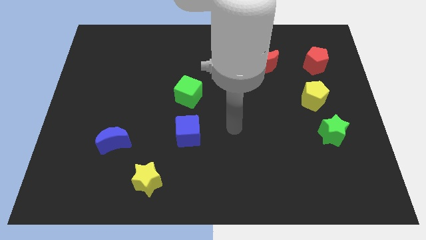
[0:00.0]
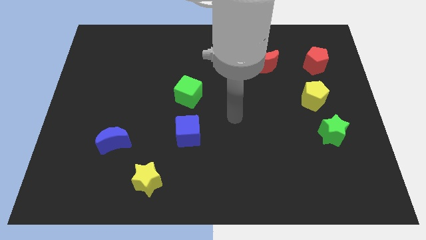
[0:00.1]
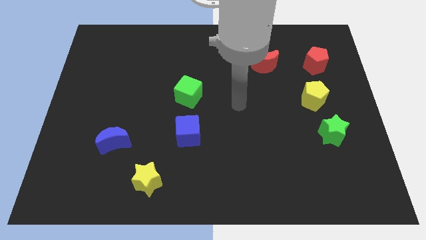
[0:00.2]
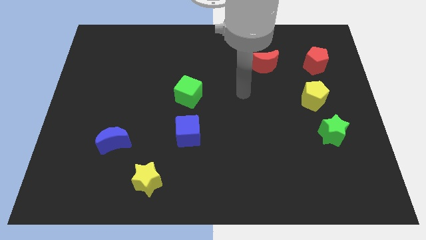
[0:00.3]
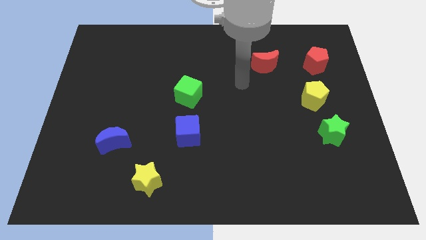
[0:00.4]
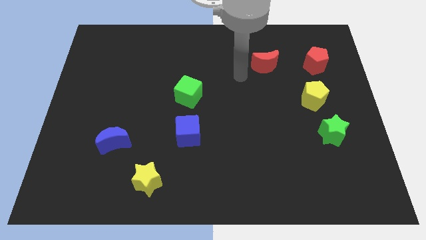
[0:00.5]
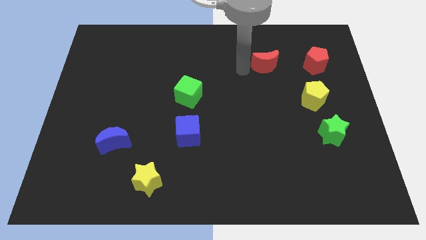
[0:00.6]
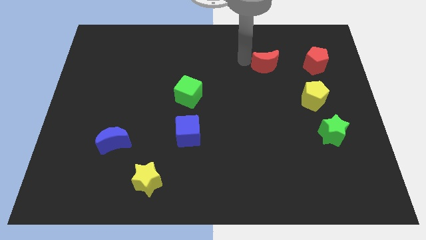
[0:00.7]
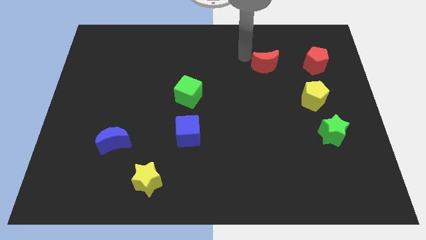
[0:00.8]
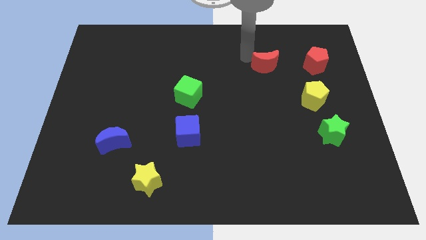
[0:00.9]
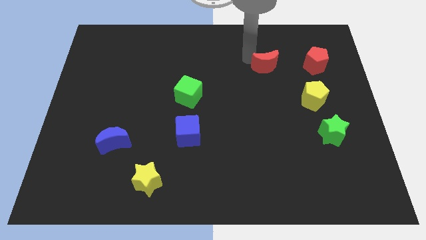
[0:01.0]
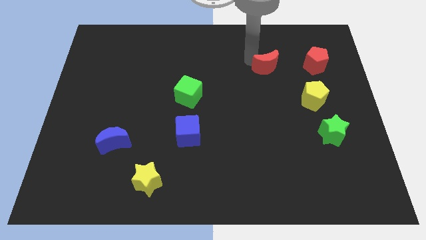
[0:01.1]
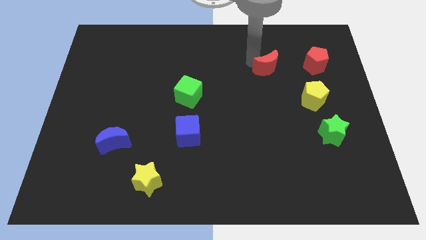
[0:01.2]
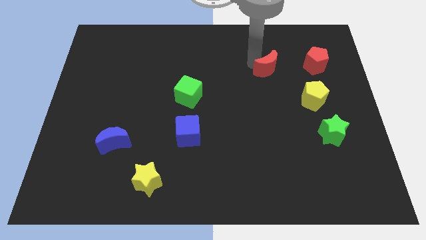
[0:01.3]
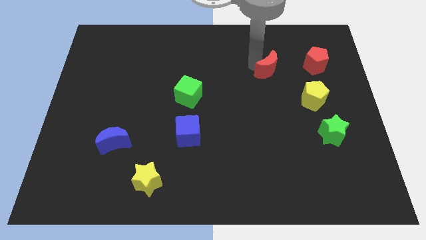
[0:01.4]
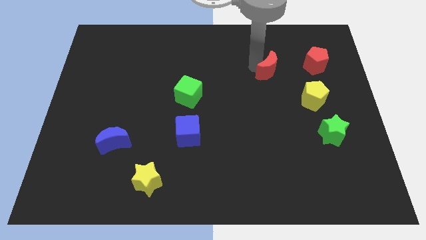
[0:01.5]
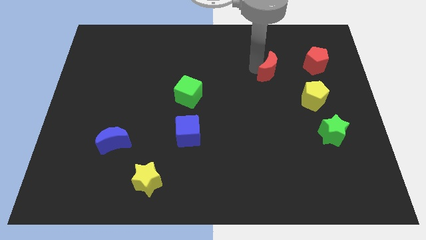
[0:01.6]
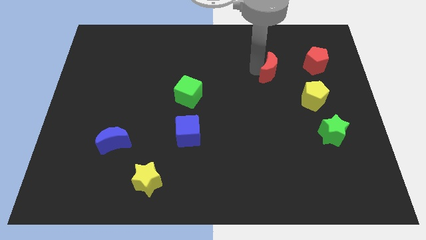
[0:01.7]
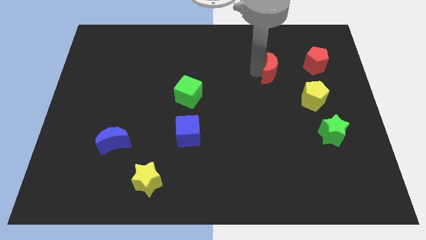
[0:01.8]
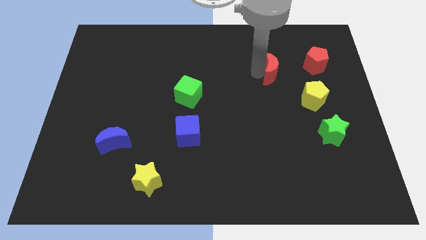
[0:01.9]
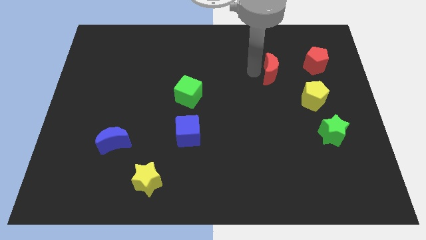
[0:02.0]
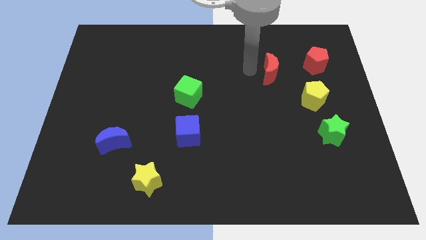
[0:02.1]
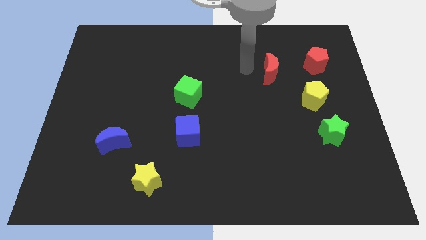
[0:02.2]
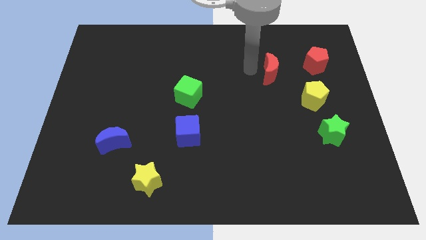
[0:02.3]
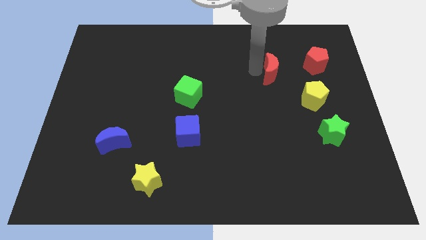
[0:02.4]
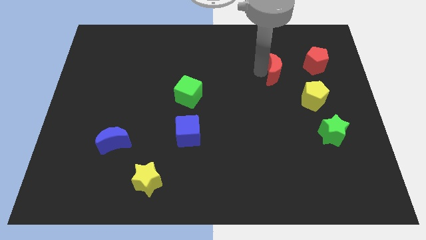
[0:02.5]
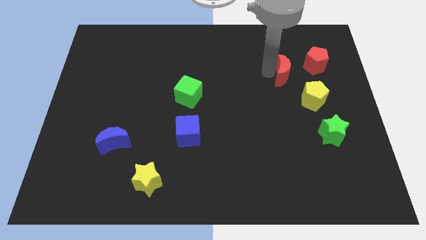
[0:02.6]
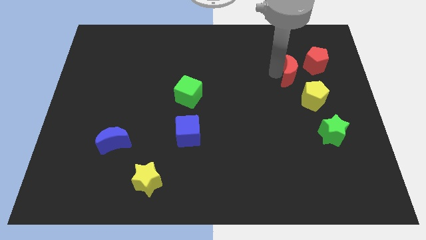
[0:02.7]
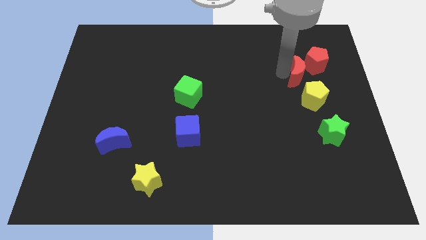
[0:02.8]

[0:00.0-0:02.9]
slightly slide the red moon diagonally downwards and to the right

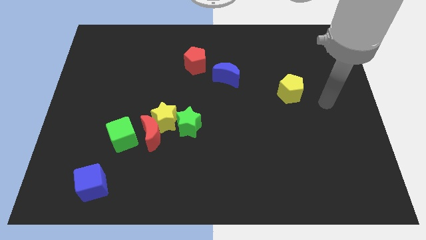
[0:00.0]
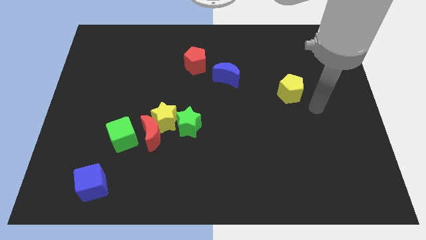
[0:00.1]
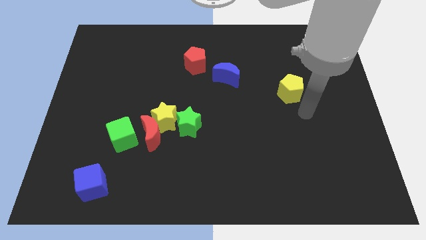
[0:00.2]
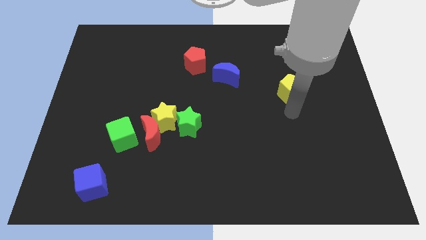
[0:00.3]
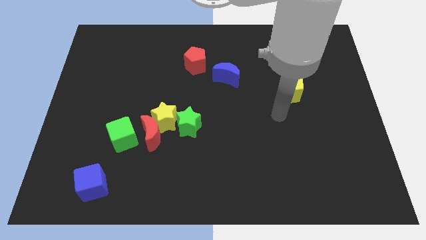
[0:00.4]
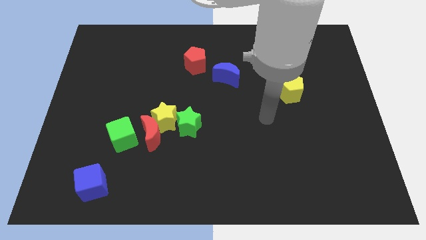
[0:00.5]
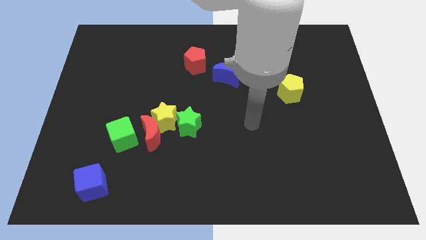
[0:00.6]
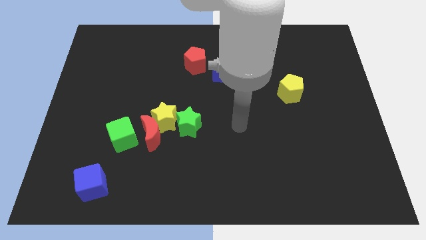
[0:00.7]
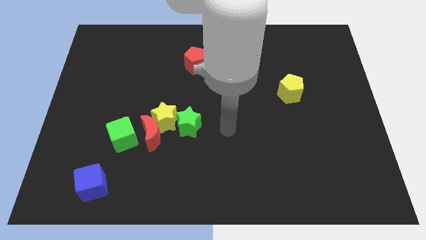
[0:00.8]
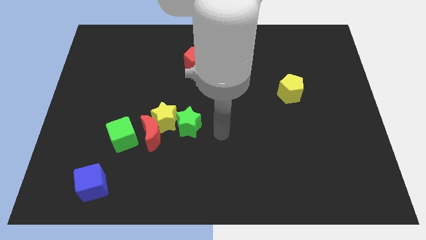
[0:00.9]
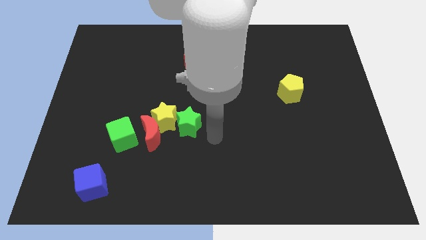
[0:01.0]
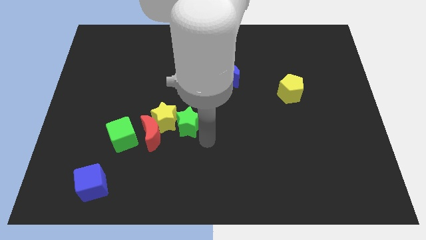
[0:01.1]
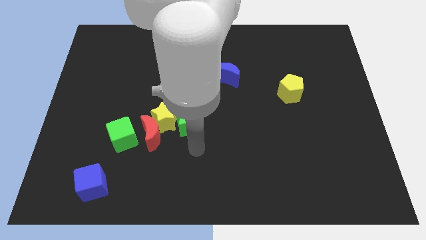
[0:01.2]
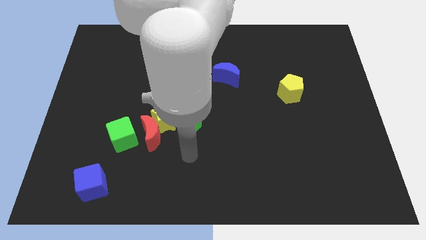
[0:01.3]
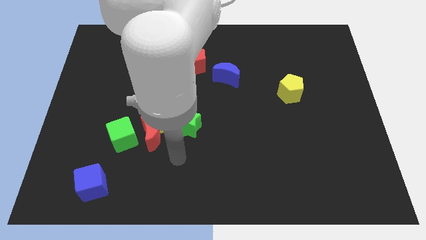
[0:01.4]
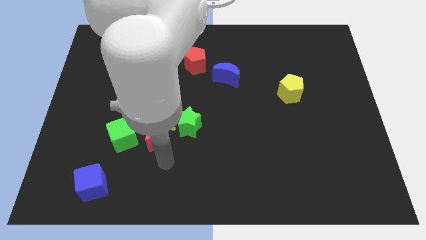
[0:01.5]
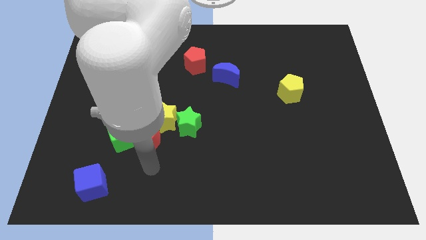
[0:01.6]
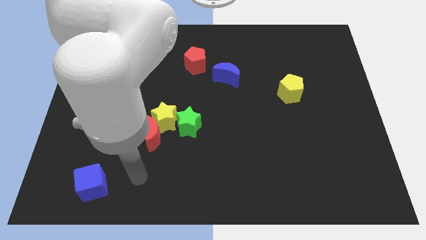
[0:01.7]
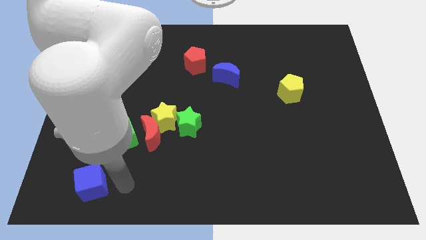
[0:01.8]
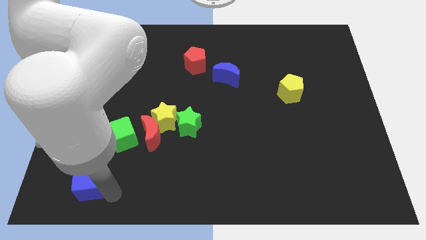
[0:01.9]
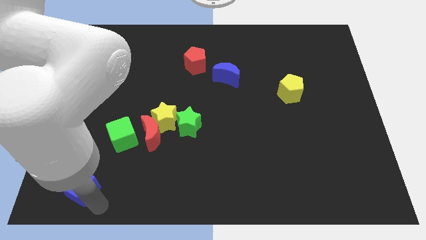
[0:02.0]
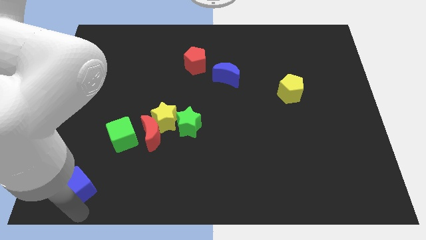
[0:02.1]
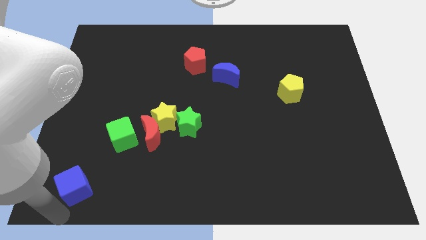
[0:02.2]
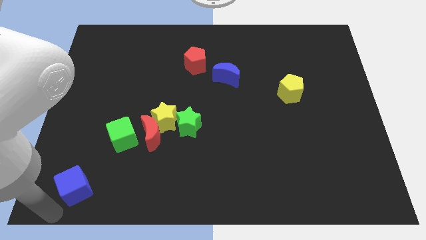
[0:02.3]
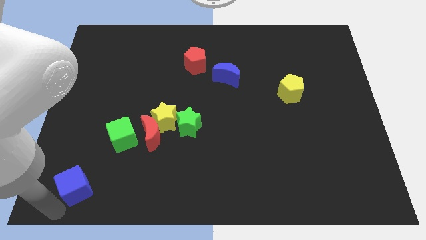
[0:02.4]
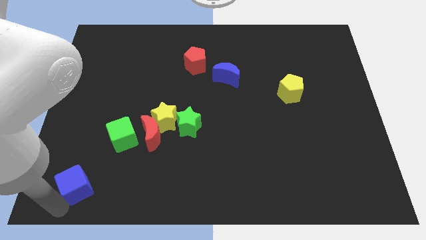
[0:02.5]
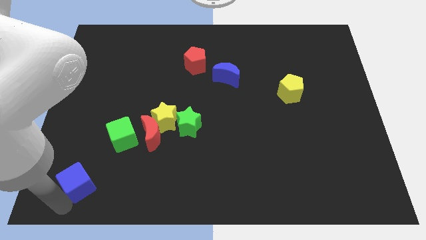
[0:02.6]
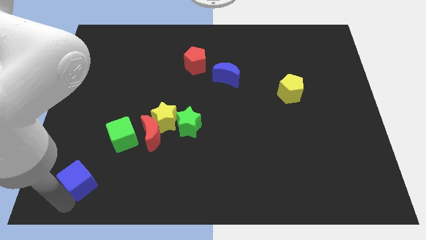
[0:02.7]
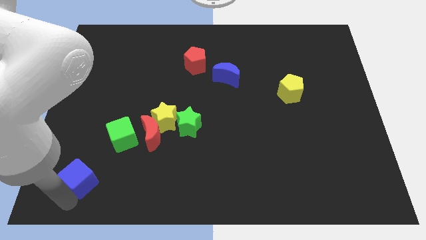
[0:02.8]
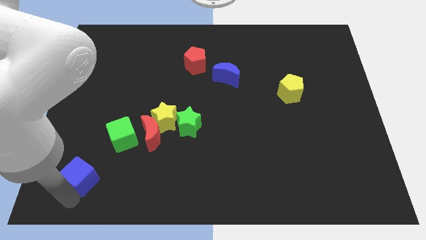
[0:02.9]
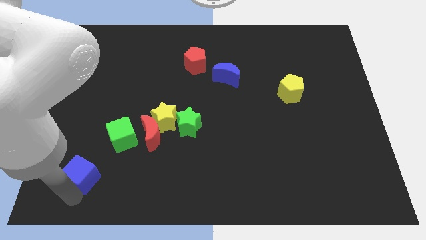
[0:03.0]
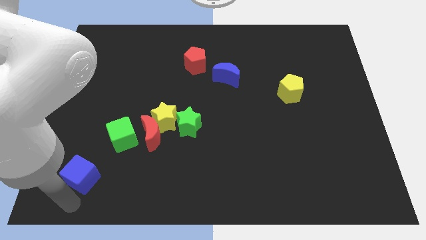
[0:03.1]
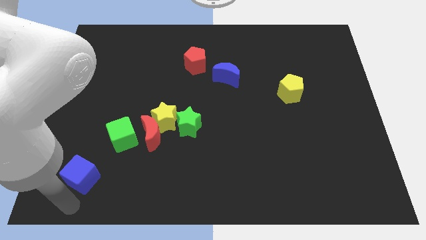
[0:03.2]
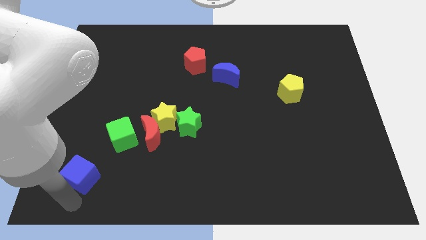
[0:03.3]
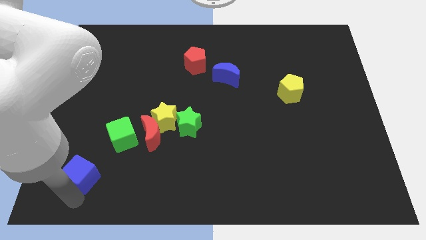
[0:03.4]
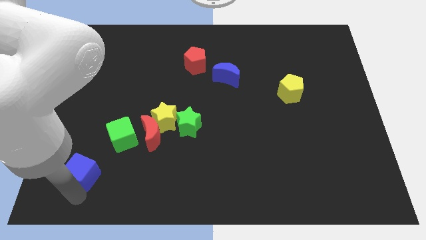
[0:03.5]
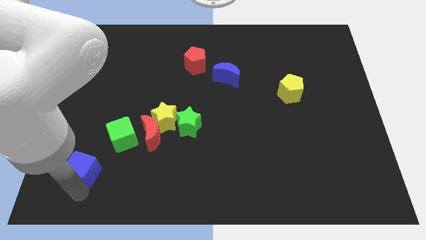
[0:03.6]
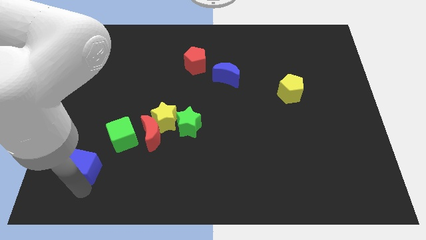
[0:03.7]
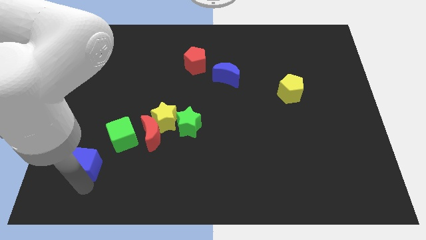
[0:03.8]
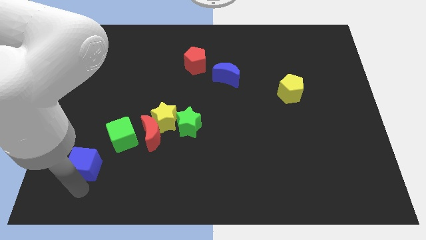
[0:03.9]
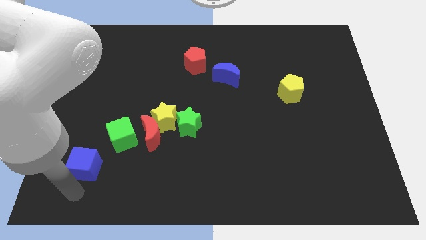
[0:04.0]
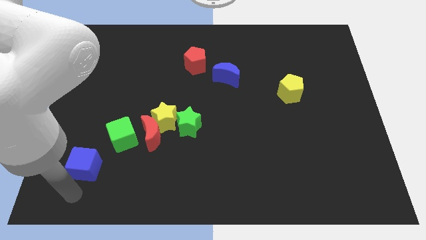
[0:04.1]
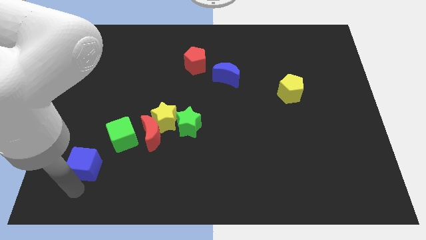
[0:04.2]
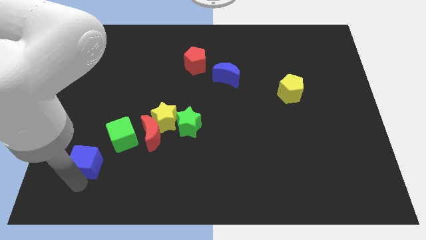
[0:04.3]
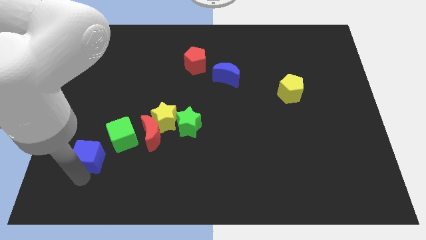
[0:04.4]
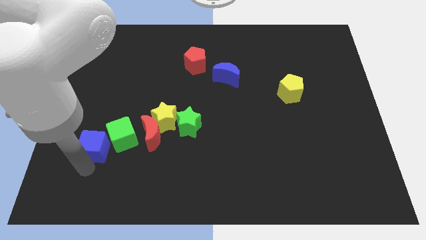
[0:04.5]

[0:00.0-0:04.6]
push the blue cube upwards a little

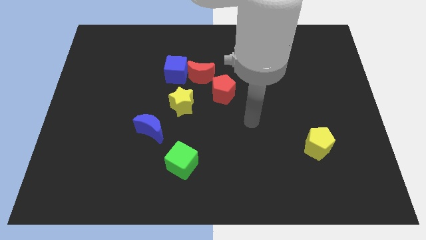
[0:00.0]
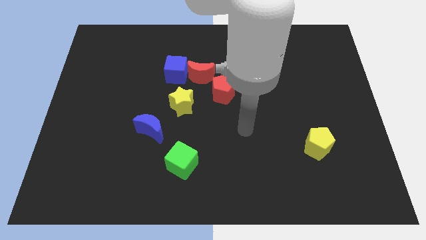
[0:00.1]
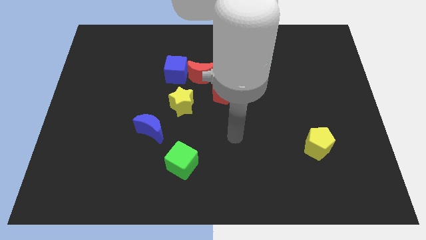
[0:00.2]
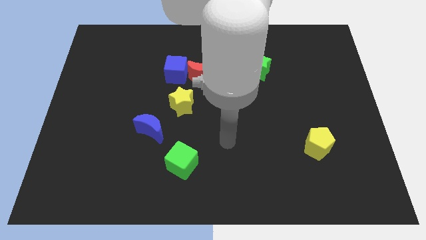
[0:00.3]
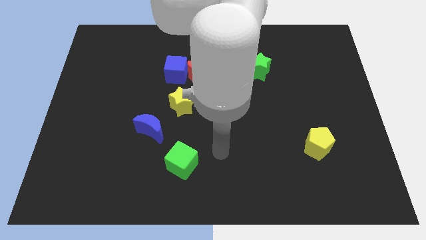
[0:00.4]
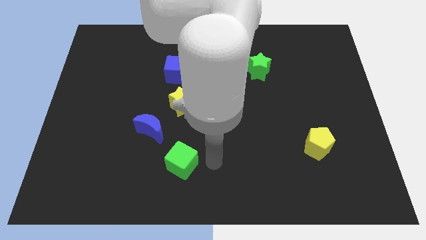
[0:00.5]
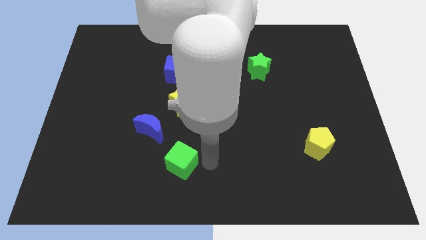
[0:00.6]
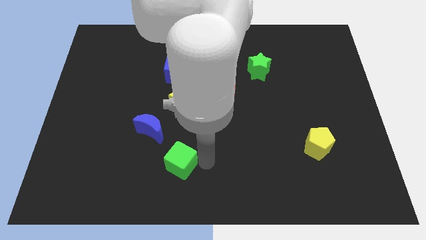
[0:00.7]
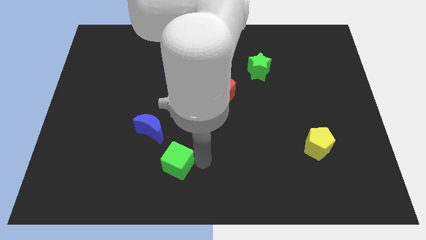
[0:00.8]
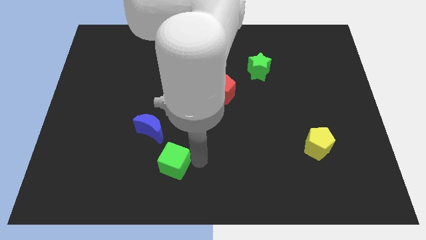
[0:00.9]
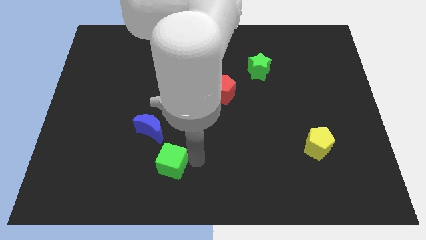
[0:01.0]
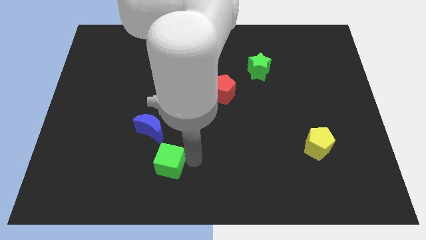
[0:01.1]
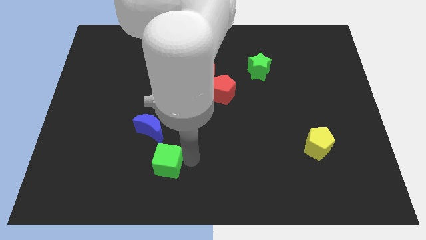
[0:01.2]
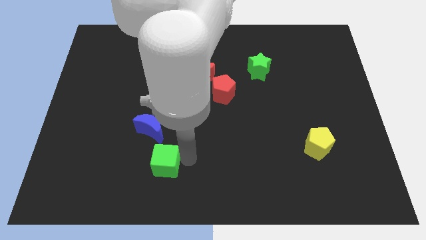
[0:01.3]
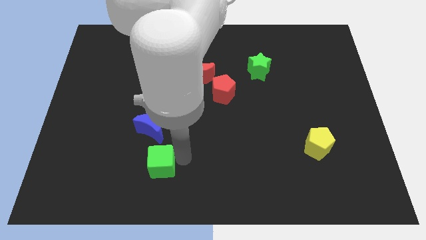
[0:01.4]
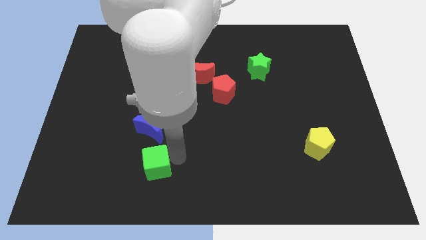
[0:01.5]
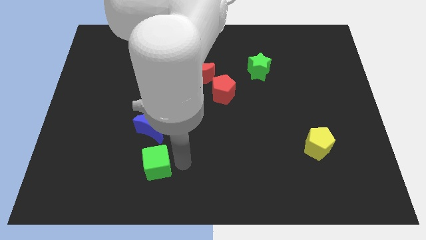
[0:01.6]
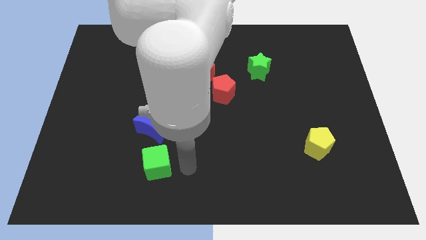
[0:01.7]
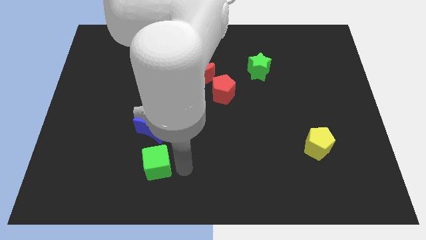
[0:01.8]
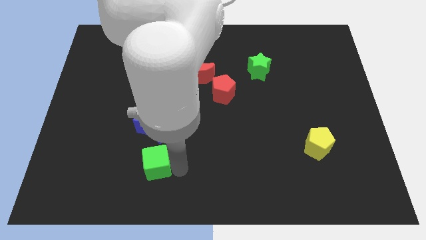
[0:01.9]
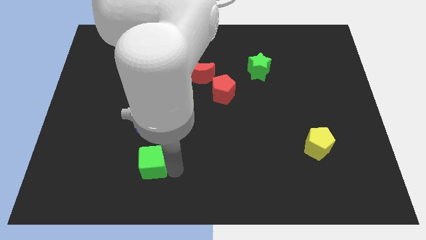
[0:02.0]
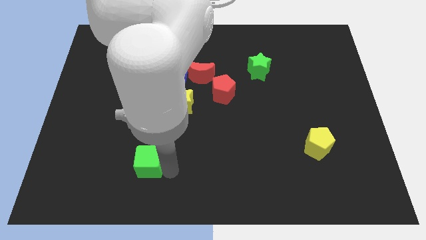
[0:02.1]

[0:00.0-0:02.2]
slightly push the green cube left
